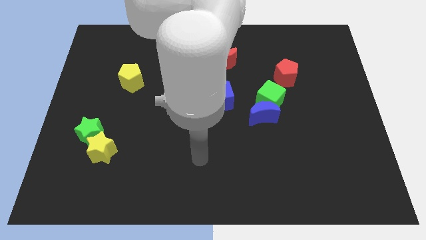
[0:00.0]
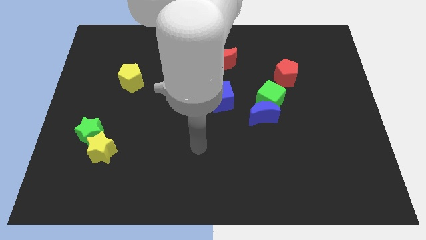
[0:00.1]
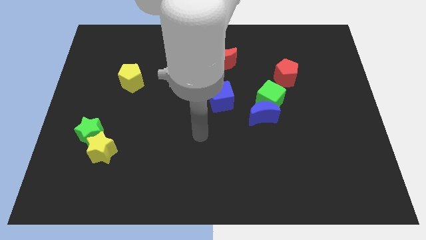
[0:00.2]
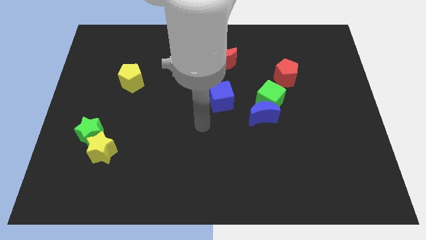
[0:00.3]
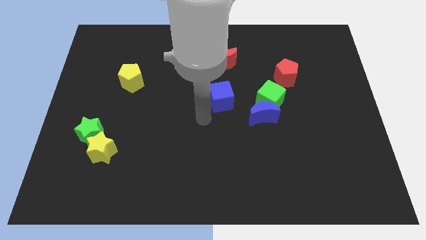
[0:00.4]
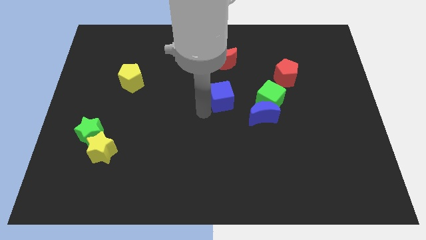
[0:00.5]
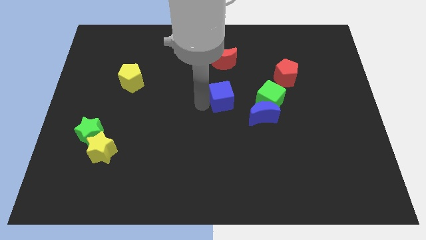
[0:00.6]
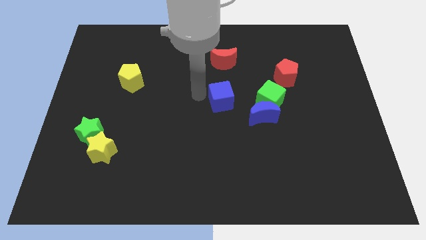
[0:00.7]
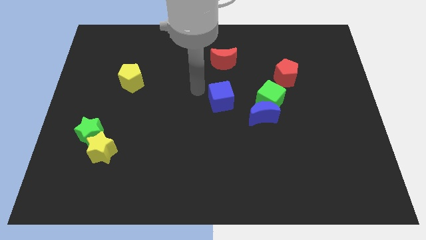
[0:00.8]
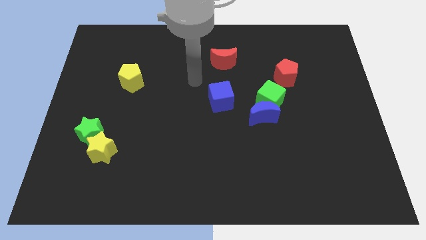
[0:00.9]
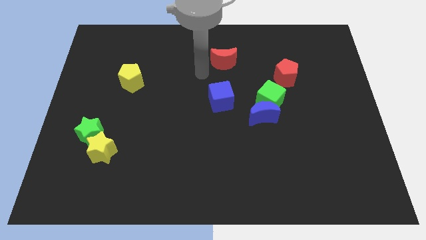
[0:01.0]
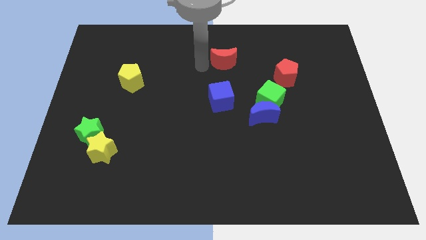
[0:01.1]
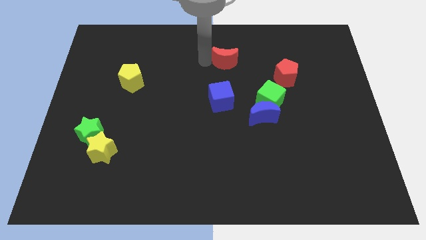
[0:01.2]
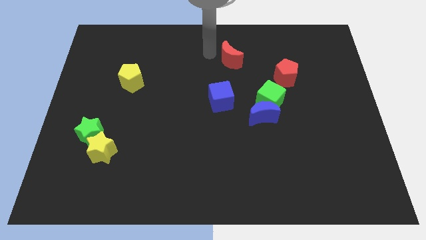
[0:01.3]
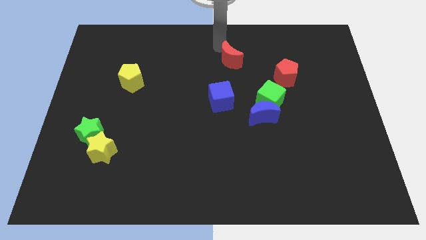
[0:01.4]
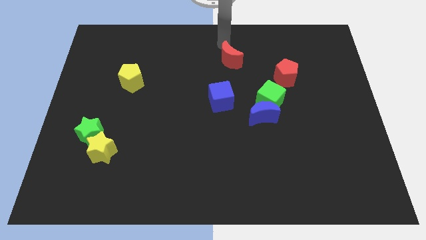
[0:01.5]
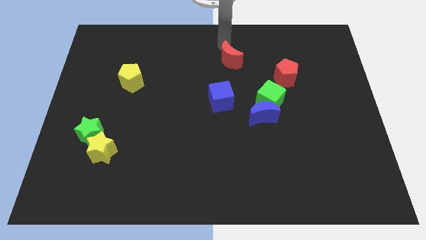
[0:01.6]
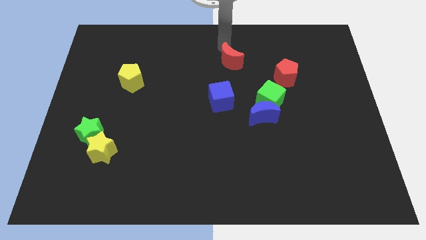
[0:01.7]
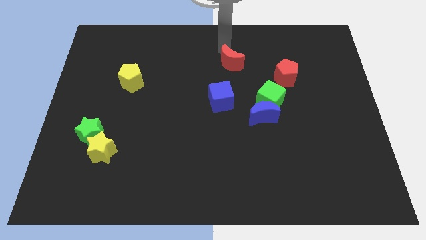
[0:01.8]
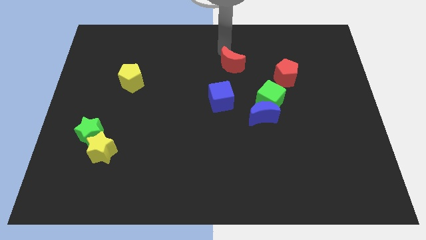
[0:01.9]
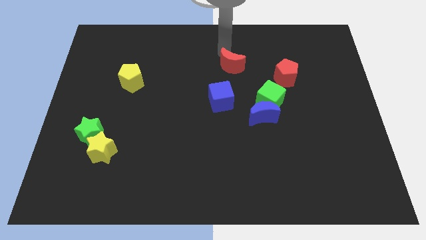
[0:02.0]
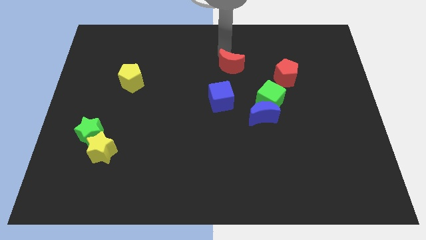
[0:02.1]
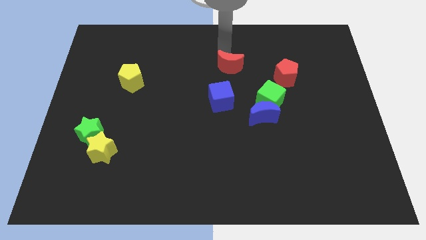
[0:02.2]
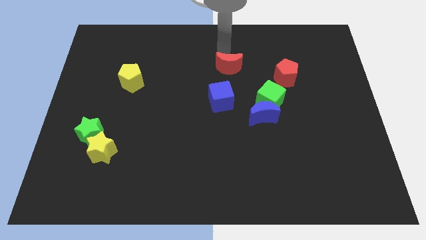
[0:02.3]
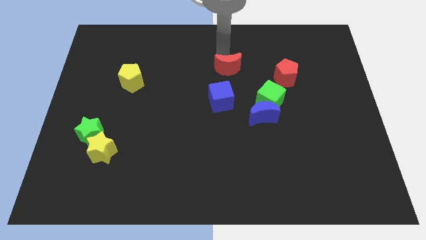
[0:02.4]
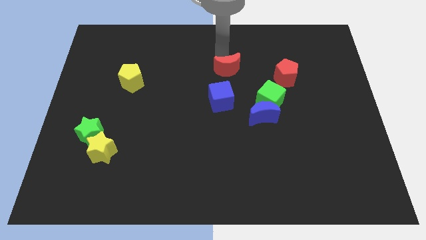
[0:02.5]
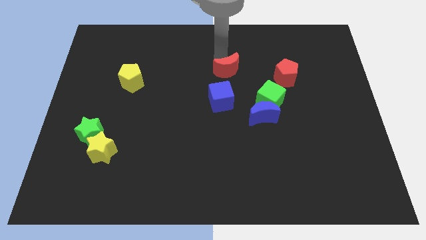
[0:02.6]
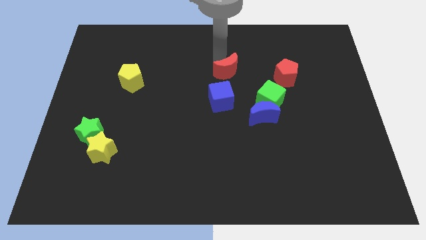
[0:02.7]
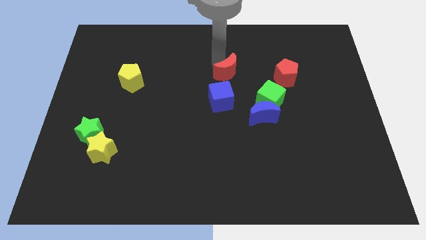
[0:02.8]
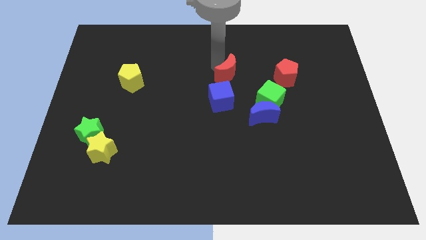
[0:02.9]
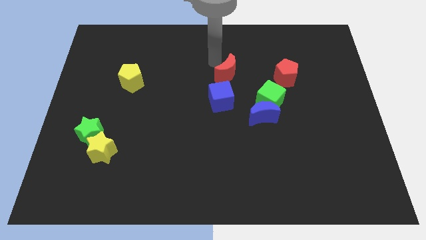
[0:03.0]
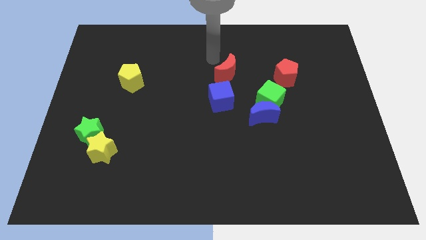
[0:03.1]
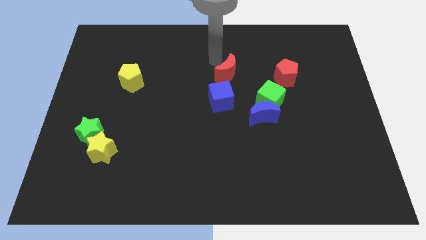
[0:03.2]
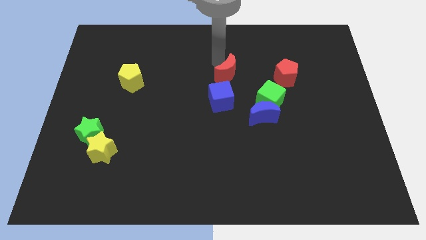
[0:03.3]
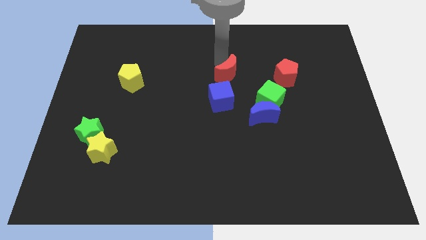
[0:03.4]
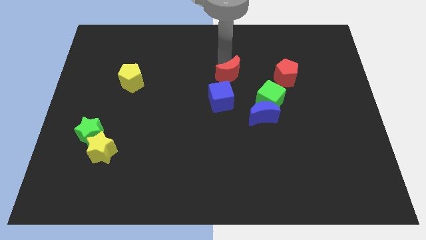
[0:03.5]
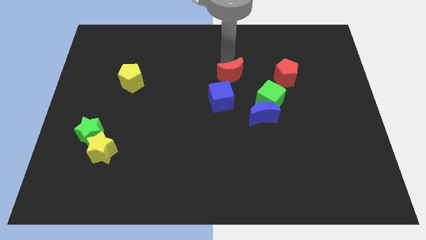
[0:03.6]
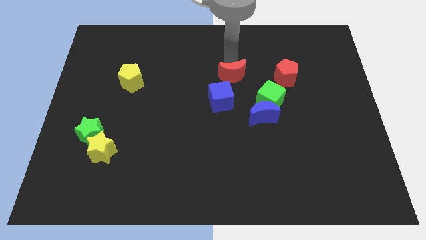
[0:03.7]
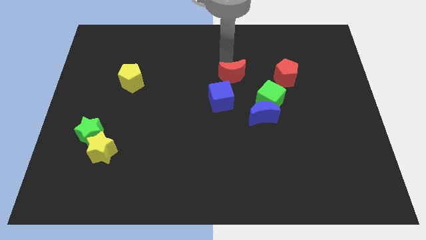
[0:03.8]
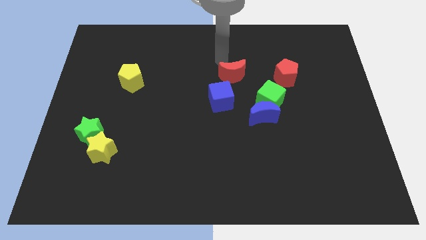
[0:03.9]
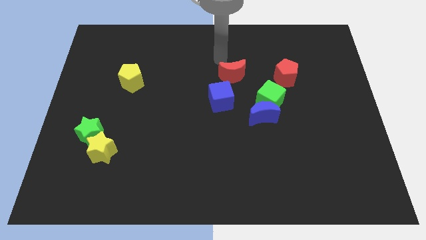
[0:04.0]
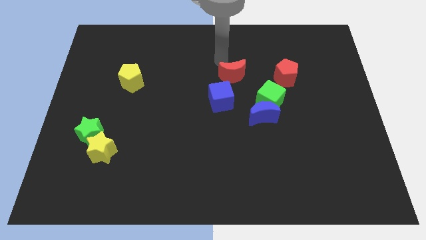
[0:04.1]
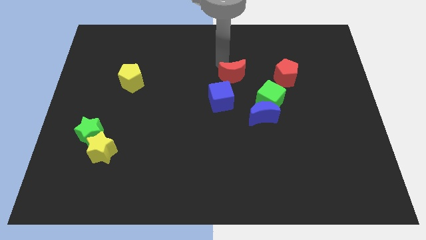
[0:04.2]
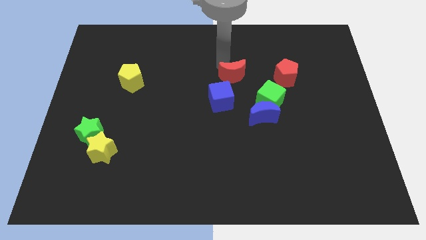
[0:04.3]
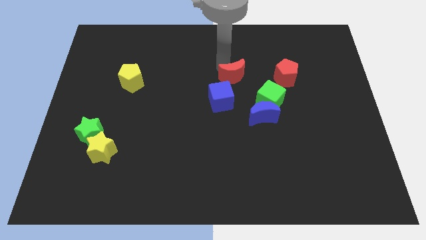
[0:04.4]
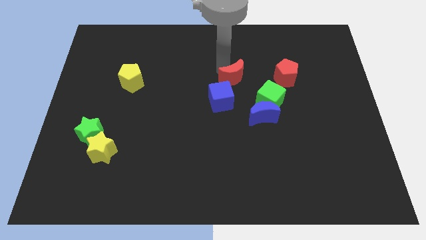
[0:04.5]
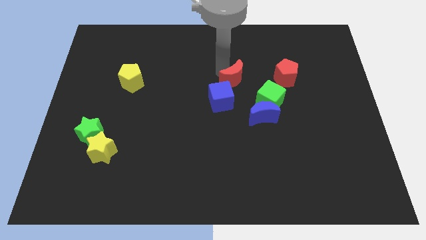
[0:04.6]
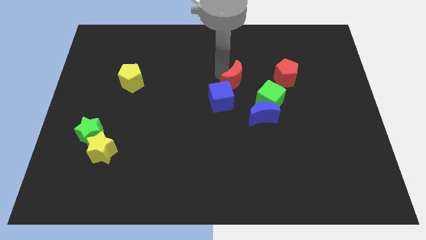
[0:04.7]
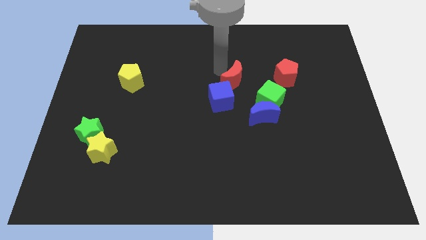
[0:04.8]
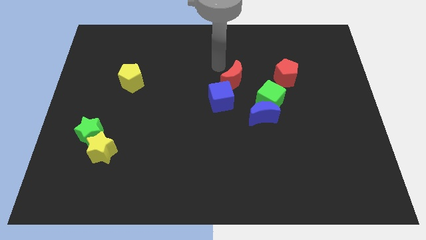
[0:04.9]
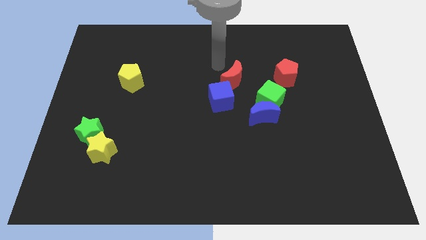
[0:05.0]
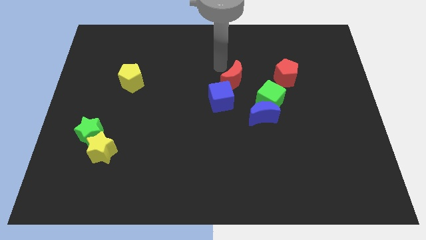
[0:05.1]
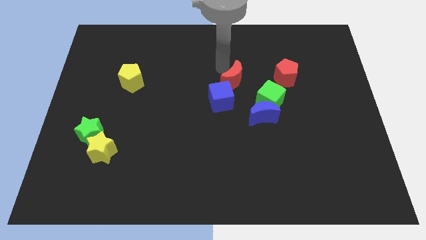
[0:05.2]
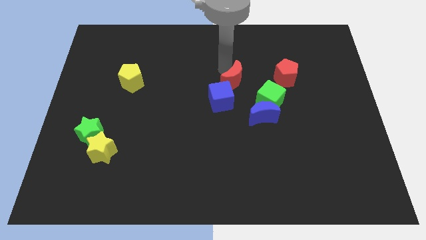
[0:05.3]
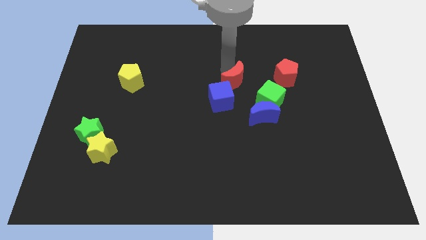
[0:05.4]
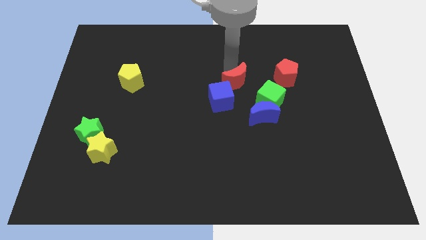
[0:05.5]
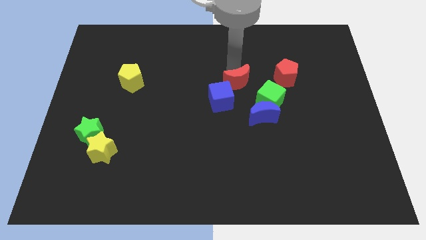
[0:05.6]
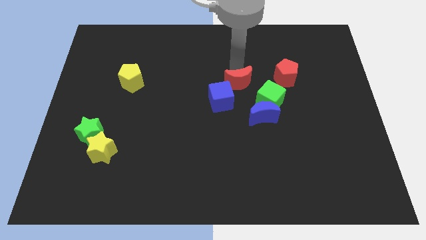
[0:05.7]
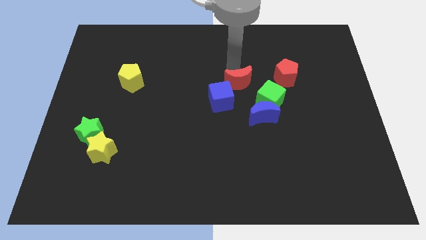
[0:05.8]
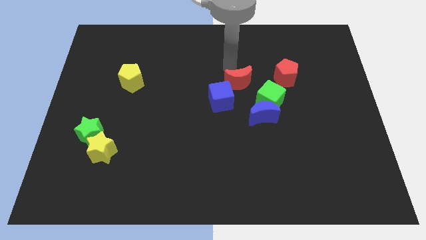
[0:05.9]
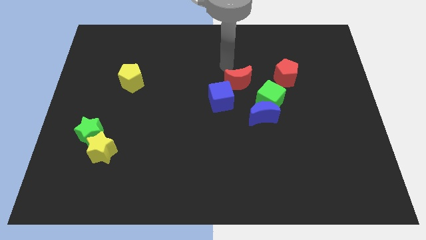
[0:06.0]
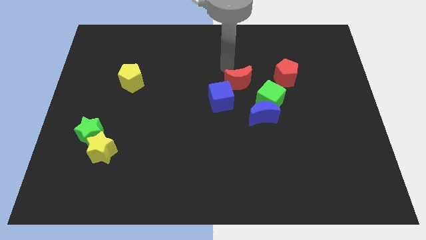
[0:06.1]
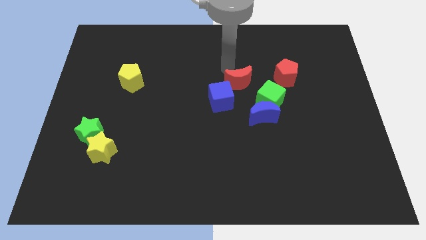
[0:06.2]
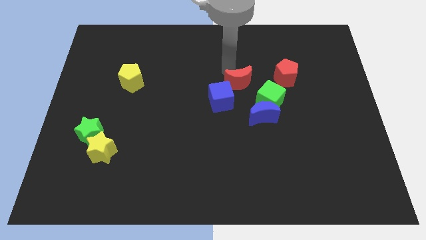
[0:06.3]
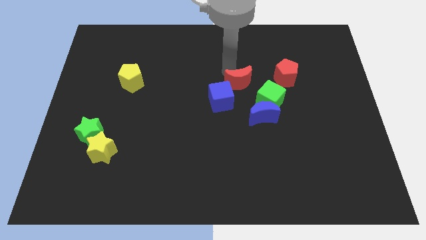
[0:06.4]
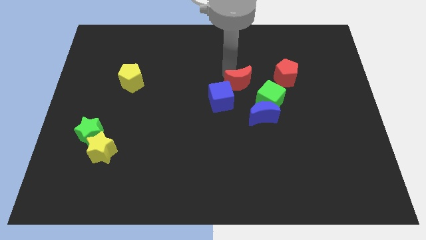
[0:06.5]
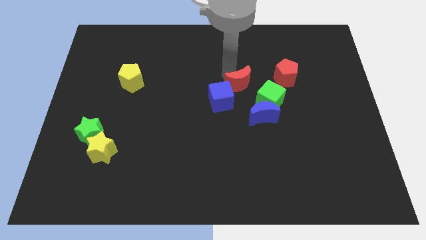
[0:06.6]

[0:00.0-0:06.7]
slide the red moon downwards a little bit

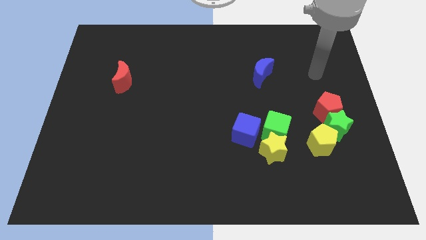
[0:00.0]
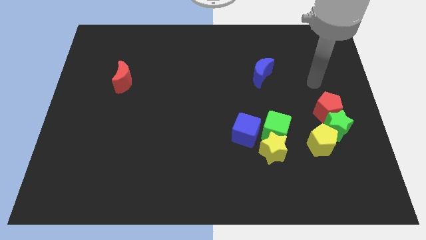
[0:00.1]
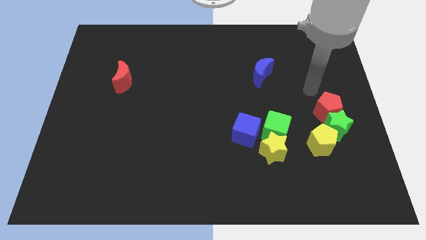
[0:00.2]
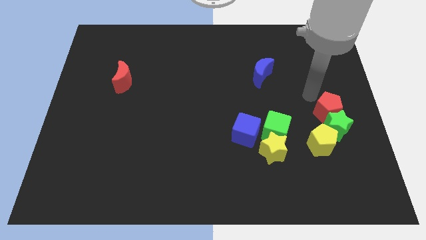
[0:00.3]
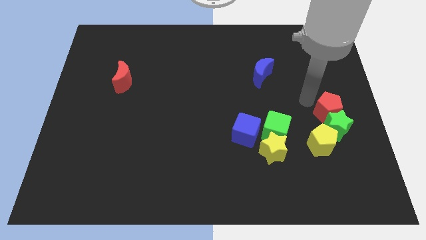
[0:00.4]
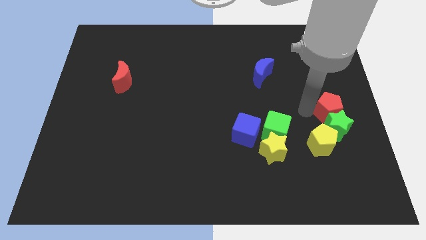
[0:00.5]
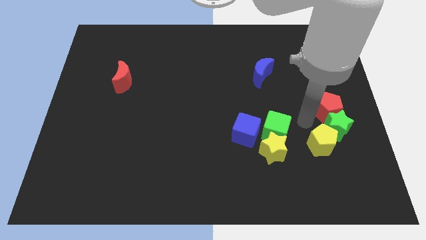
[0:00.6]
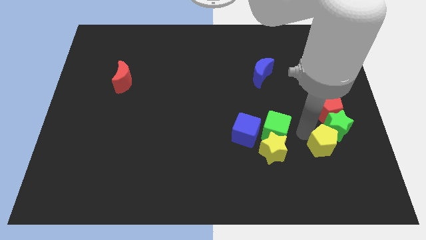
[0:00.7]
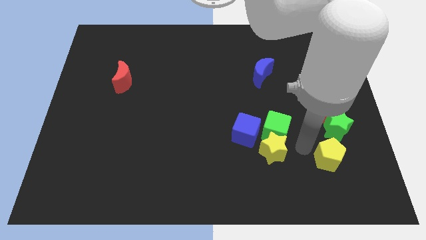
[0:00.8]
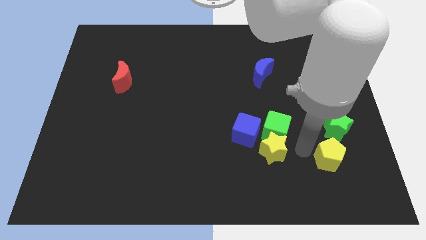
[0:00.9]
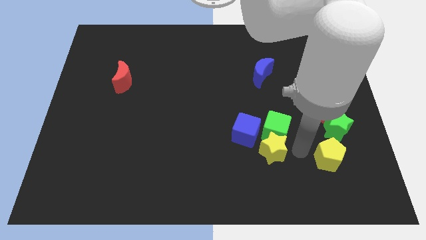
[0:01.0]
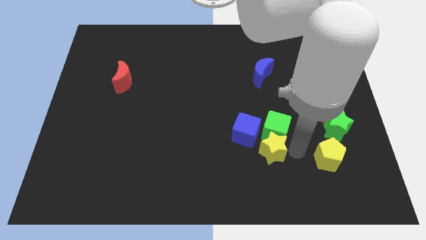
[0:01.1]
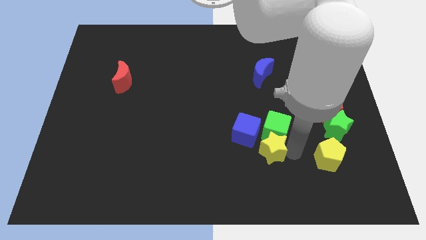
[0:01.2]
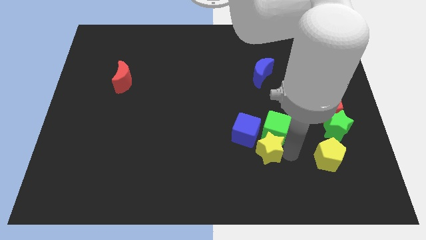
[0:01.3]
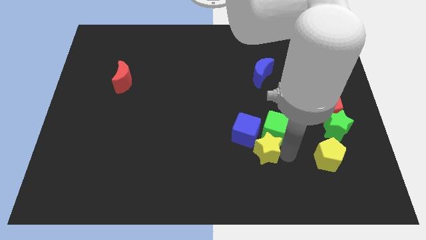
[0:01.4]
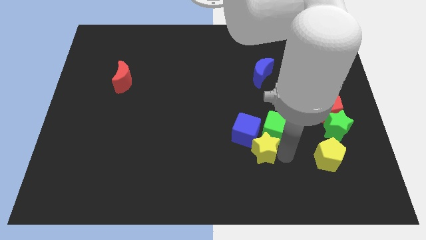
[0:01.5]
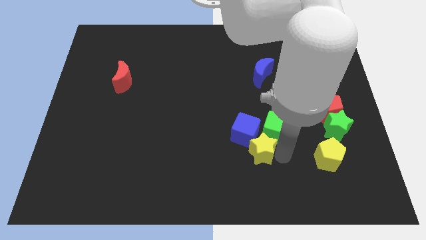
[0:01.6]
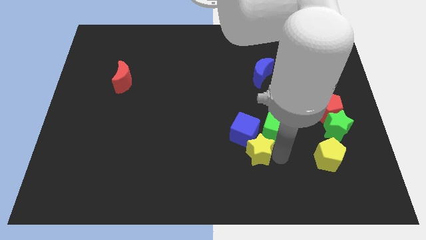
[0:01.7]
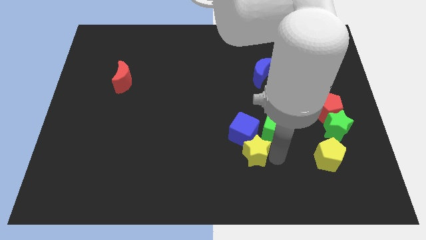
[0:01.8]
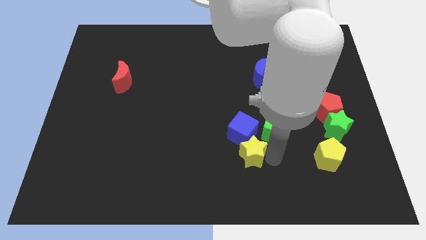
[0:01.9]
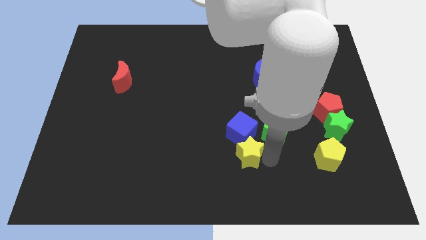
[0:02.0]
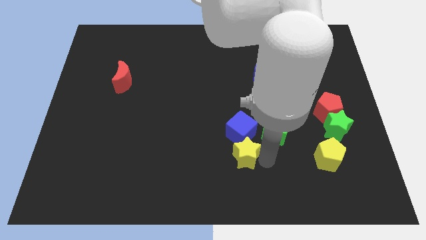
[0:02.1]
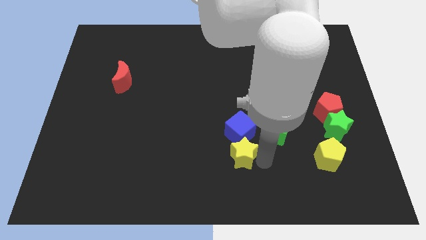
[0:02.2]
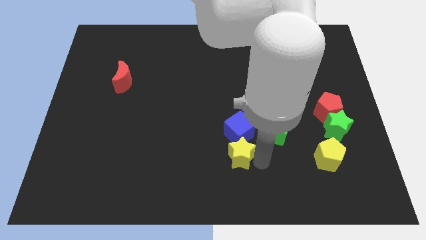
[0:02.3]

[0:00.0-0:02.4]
move the yellow star a little to the left
